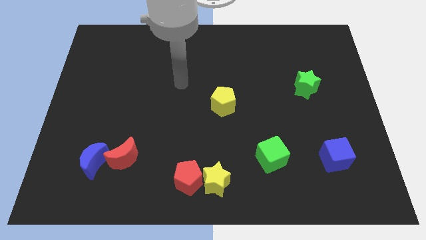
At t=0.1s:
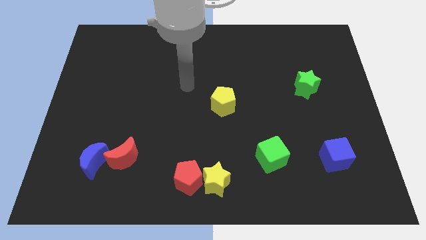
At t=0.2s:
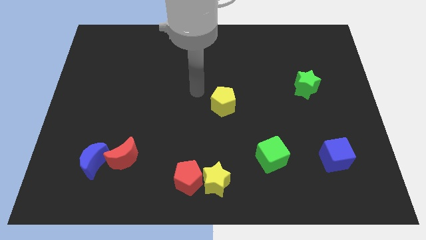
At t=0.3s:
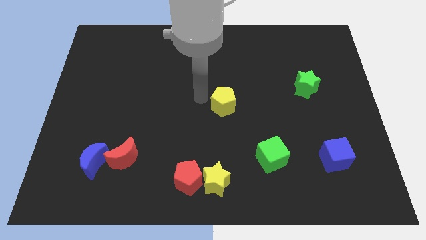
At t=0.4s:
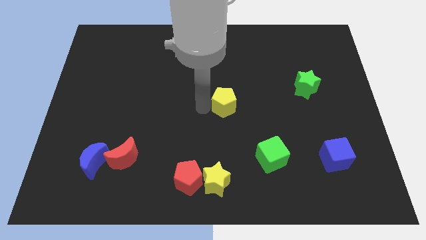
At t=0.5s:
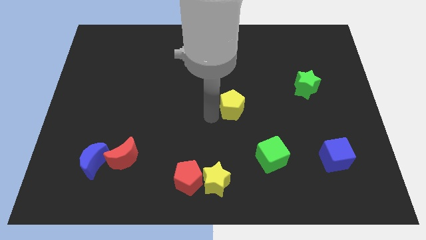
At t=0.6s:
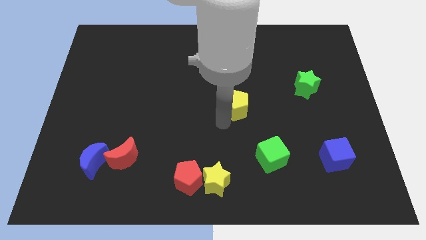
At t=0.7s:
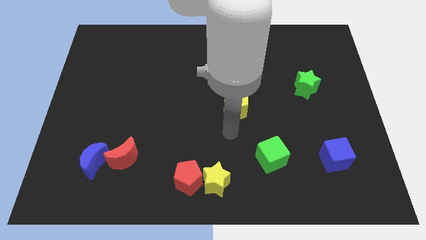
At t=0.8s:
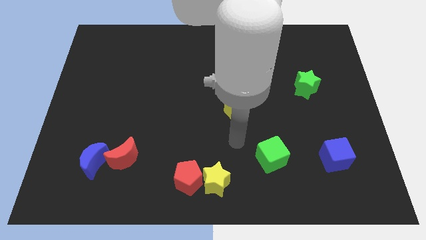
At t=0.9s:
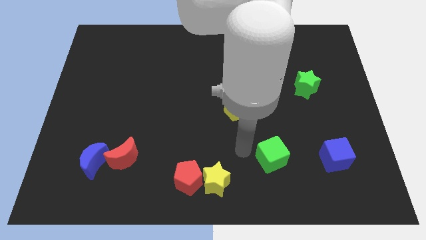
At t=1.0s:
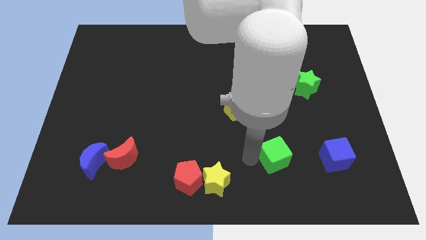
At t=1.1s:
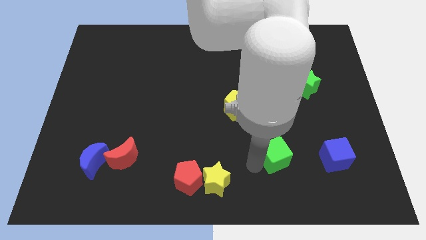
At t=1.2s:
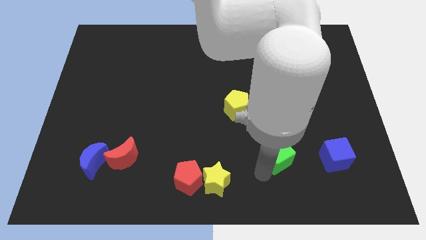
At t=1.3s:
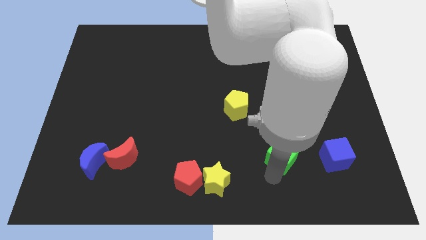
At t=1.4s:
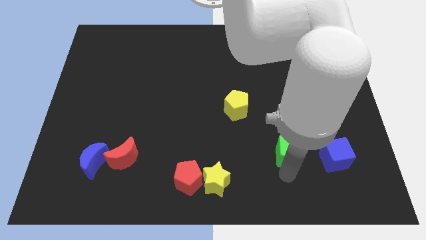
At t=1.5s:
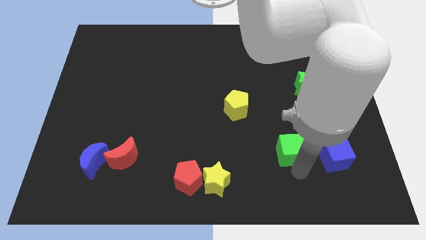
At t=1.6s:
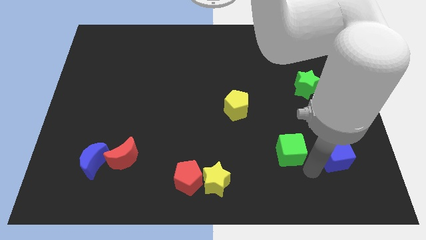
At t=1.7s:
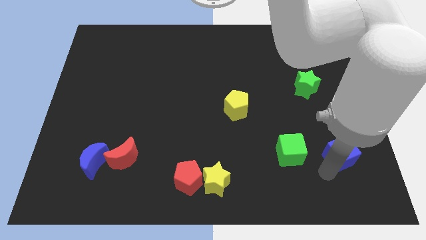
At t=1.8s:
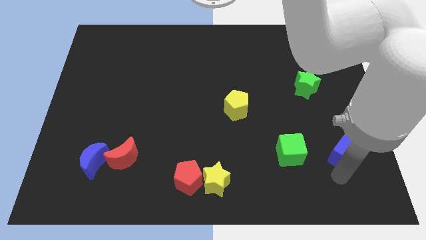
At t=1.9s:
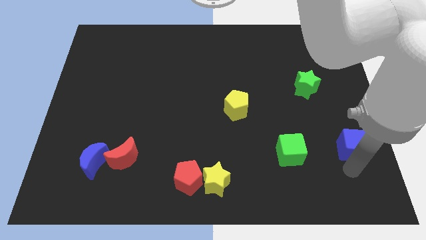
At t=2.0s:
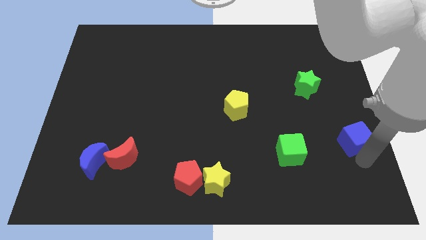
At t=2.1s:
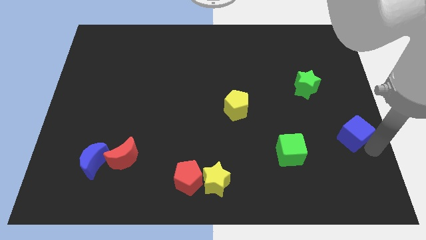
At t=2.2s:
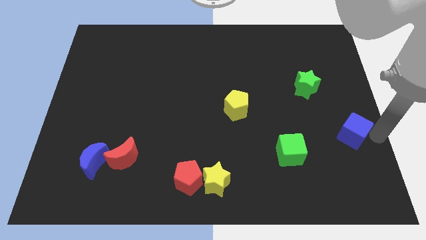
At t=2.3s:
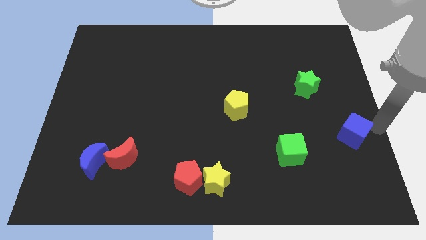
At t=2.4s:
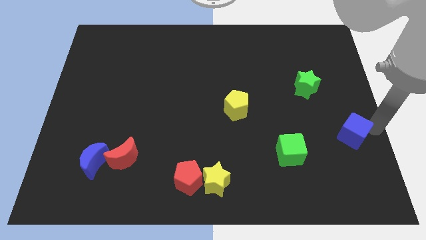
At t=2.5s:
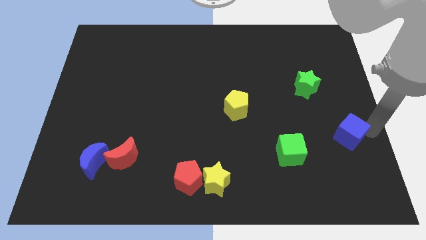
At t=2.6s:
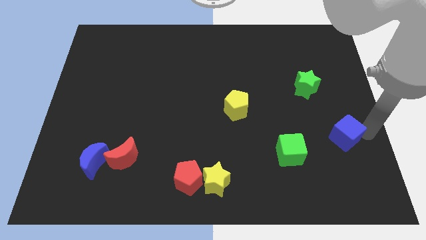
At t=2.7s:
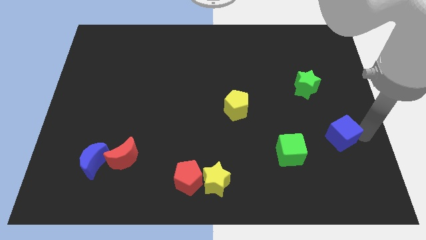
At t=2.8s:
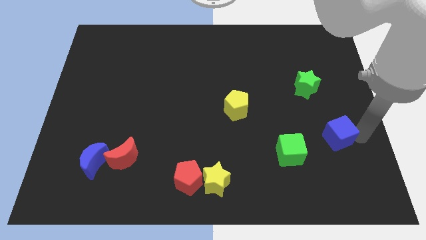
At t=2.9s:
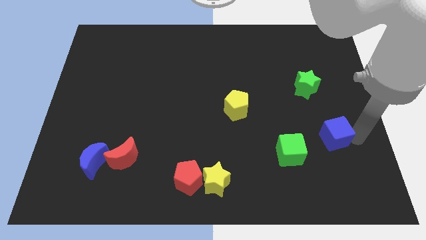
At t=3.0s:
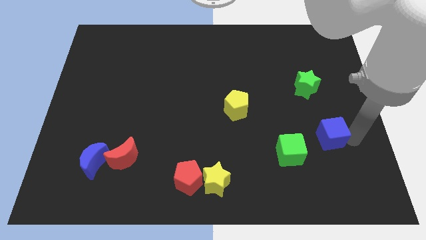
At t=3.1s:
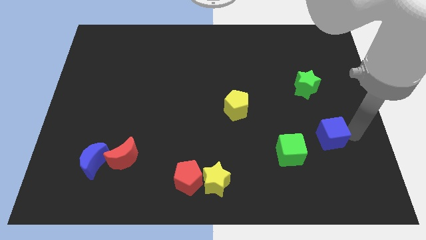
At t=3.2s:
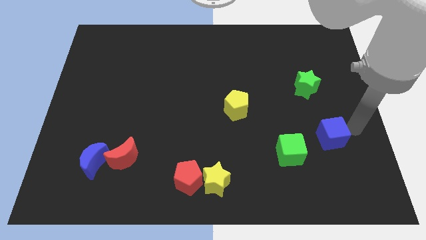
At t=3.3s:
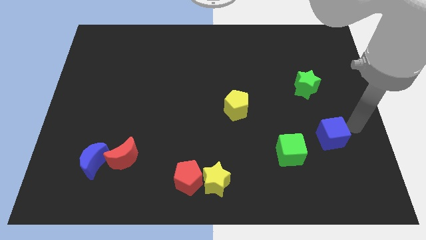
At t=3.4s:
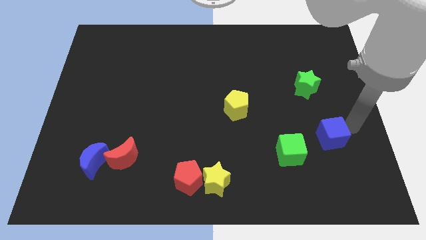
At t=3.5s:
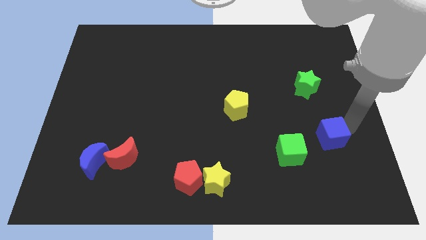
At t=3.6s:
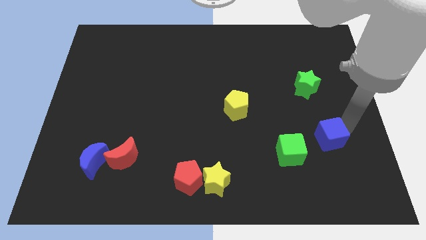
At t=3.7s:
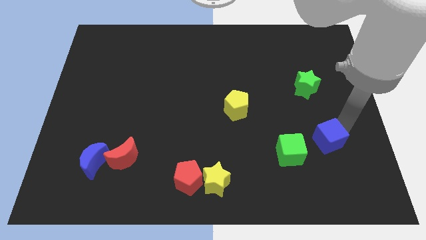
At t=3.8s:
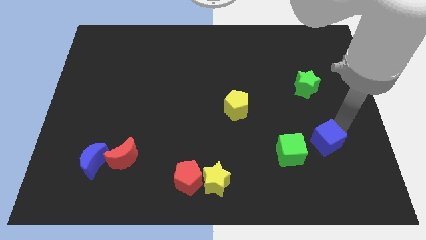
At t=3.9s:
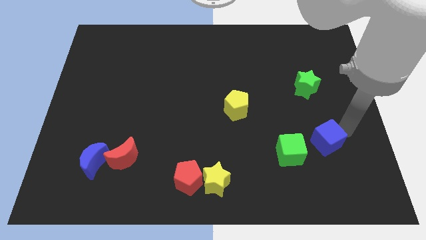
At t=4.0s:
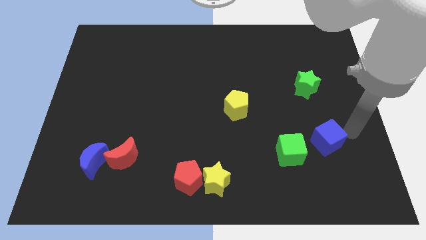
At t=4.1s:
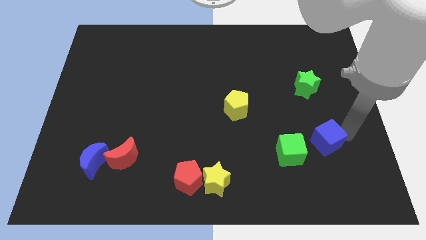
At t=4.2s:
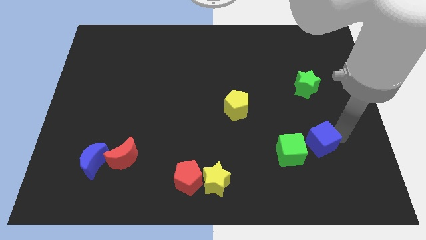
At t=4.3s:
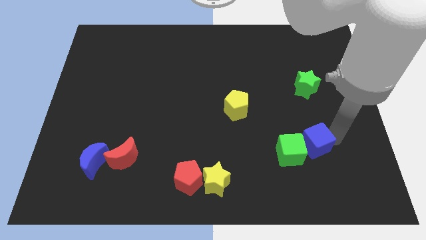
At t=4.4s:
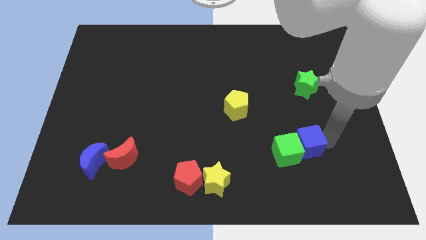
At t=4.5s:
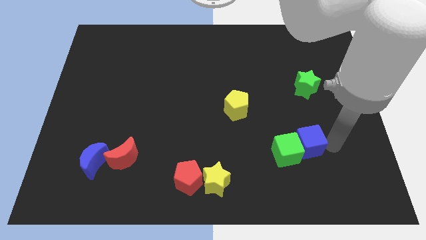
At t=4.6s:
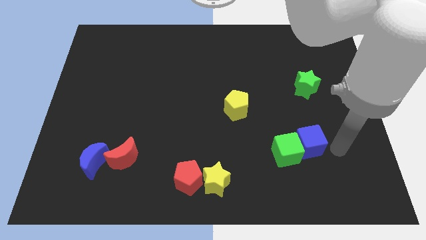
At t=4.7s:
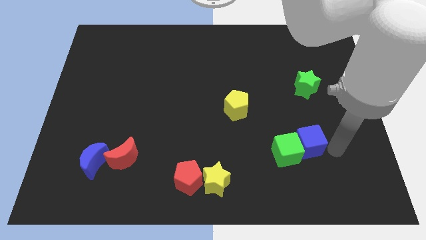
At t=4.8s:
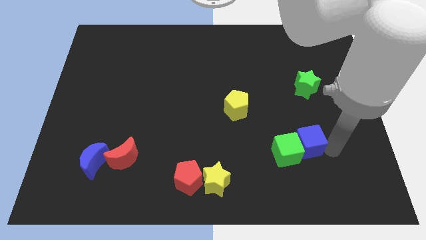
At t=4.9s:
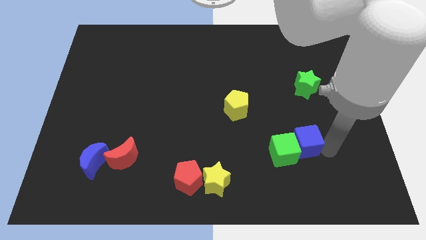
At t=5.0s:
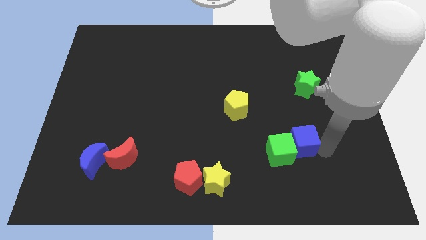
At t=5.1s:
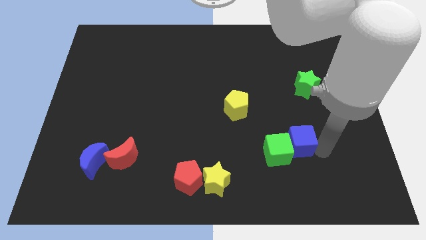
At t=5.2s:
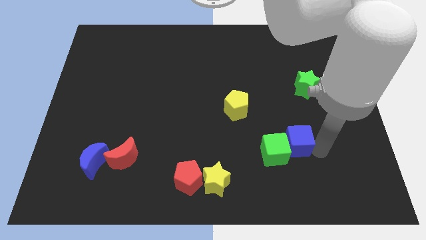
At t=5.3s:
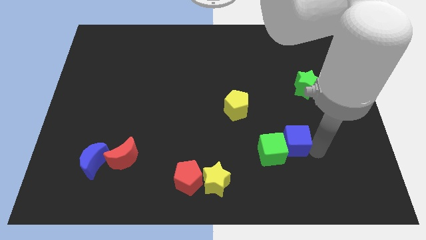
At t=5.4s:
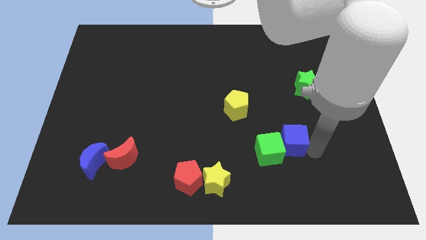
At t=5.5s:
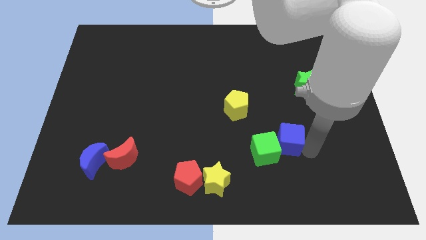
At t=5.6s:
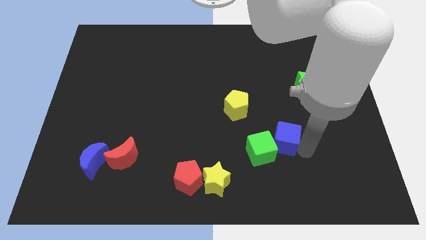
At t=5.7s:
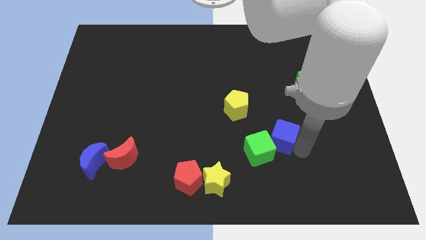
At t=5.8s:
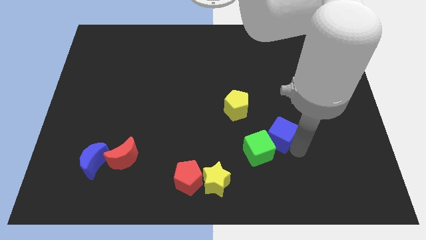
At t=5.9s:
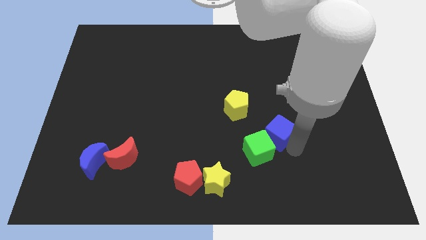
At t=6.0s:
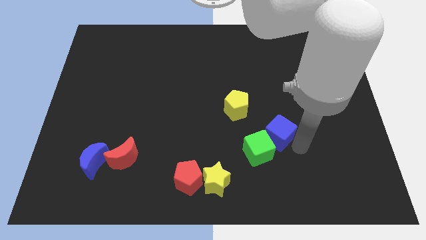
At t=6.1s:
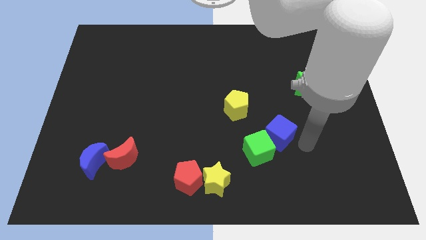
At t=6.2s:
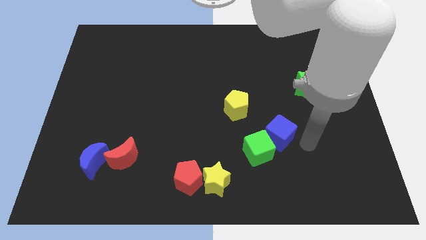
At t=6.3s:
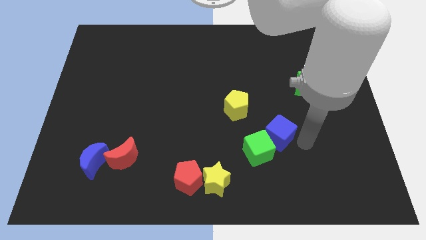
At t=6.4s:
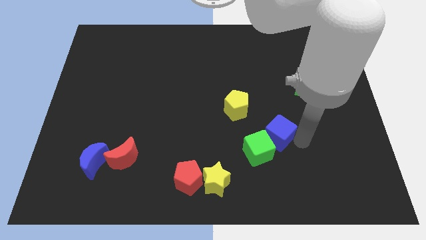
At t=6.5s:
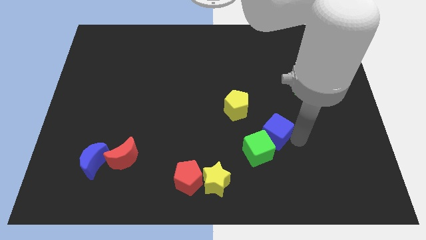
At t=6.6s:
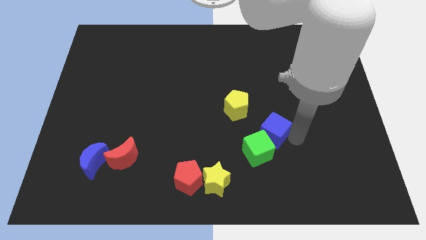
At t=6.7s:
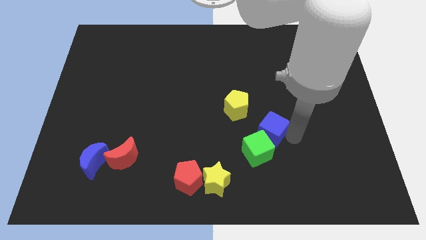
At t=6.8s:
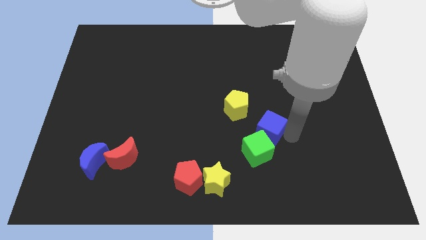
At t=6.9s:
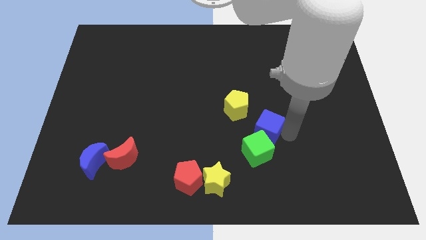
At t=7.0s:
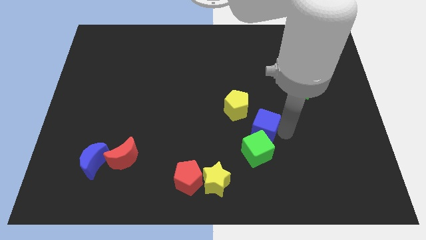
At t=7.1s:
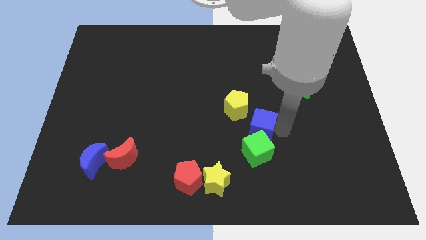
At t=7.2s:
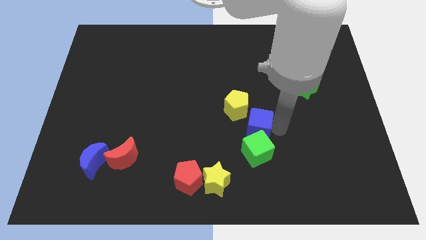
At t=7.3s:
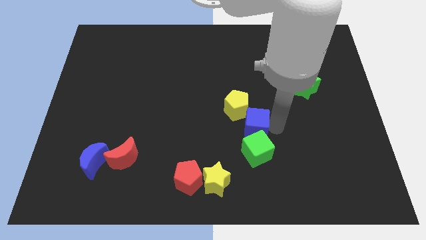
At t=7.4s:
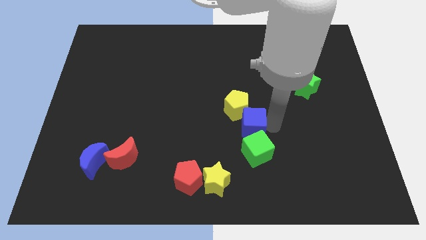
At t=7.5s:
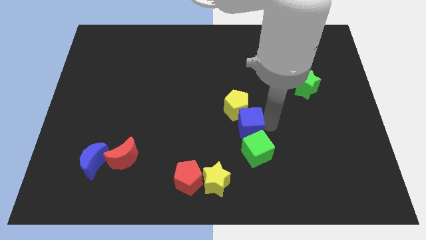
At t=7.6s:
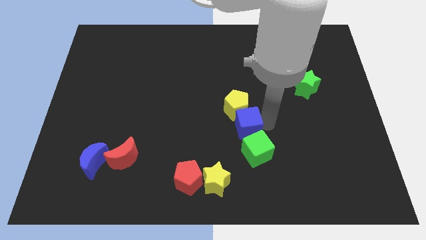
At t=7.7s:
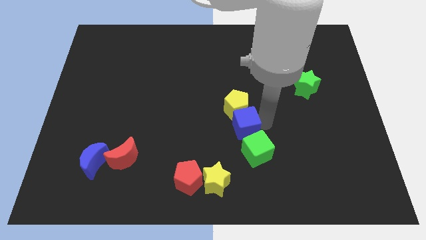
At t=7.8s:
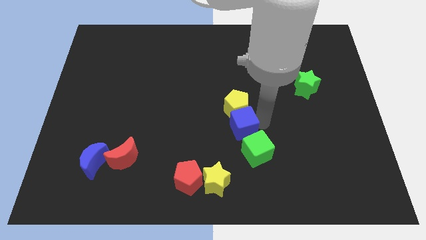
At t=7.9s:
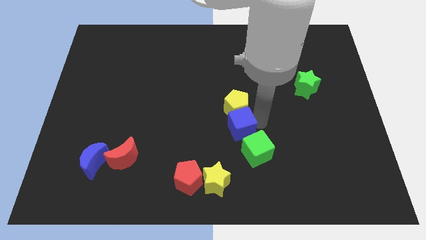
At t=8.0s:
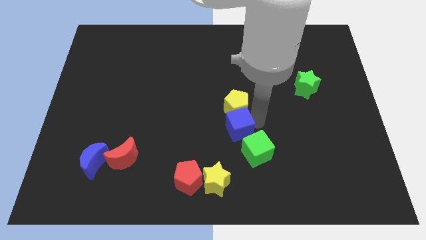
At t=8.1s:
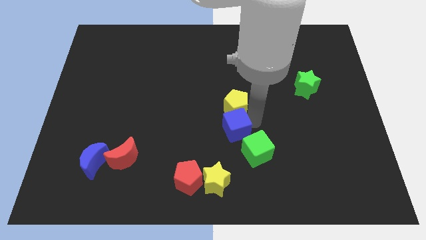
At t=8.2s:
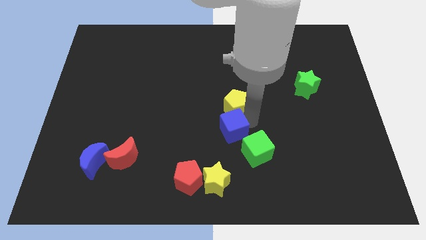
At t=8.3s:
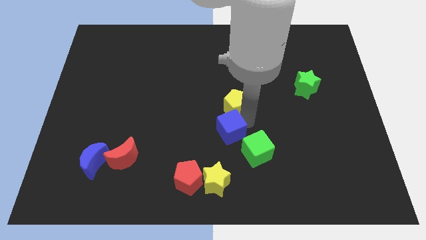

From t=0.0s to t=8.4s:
move the blue cube left
